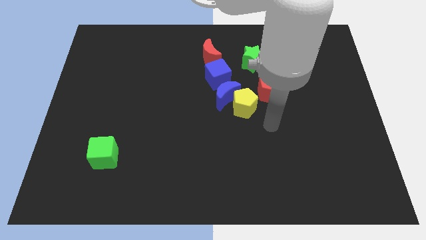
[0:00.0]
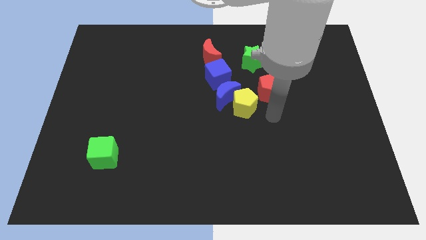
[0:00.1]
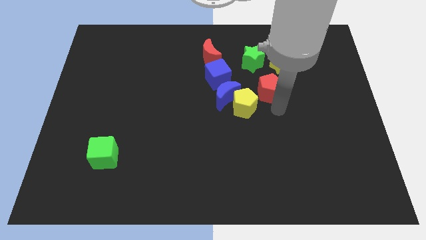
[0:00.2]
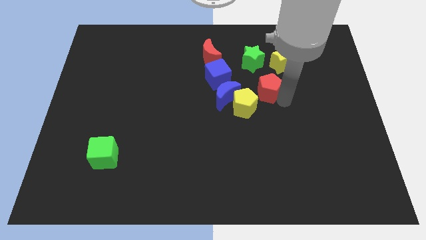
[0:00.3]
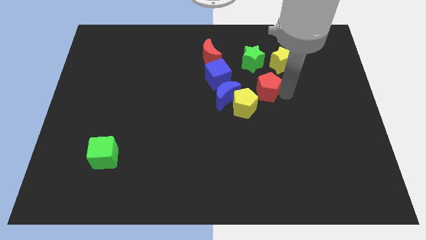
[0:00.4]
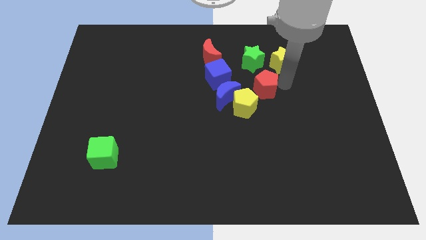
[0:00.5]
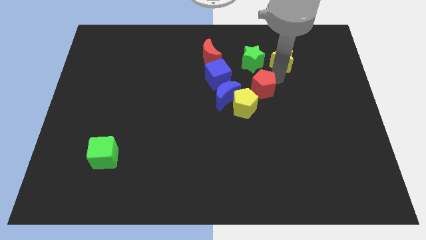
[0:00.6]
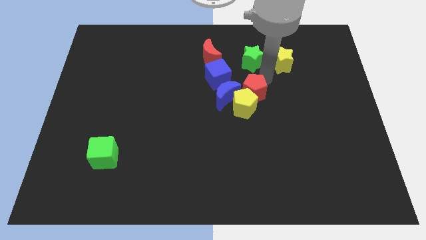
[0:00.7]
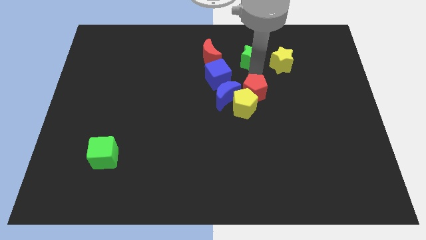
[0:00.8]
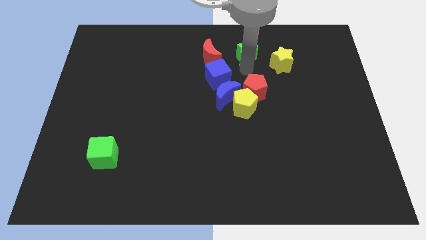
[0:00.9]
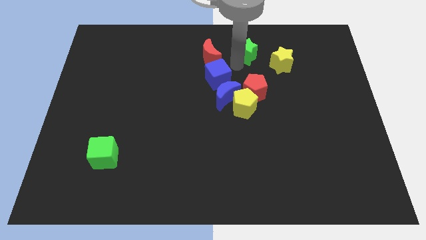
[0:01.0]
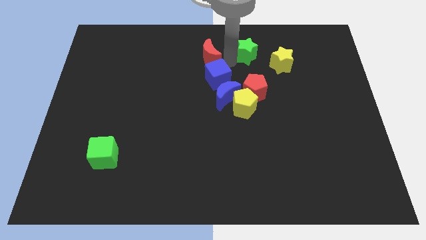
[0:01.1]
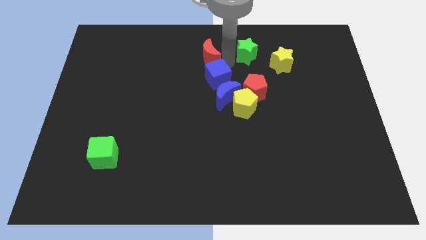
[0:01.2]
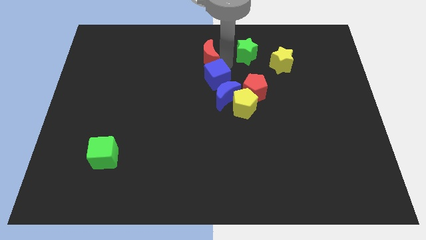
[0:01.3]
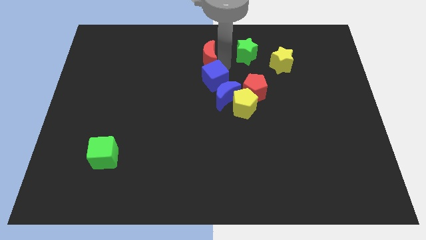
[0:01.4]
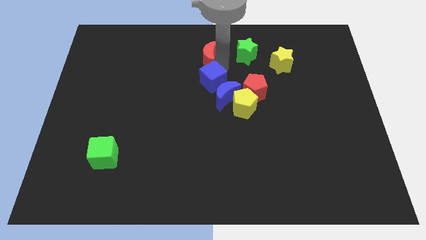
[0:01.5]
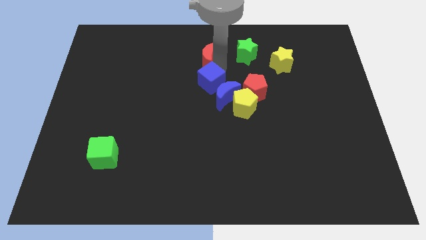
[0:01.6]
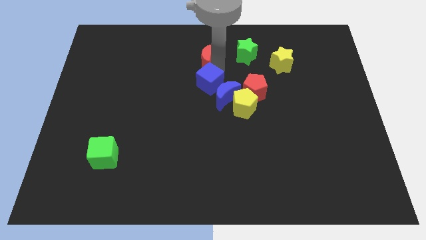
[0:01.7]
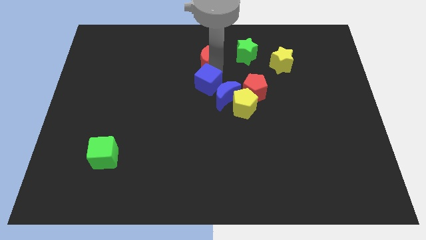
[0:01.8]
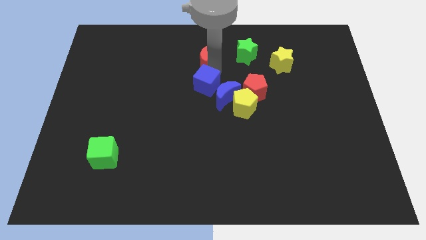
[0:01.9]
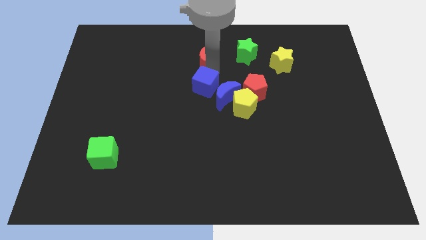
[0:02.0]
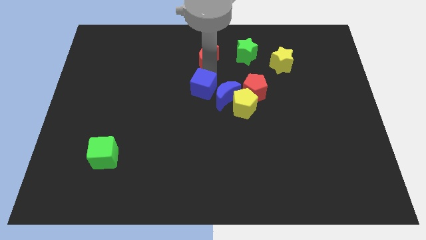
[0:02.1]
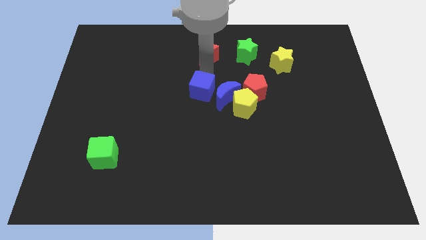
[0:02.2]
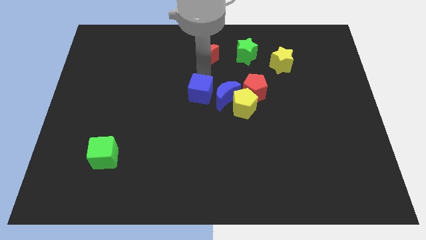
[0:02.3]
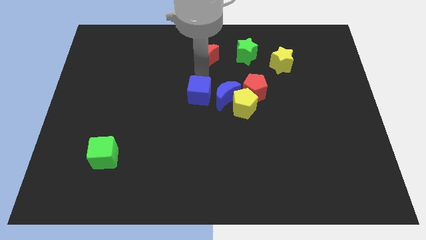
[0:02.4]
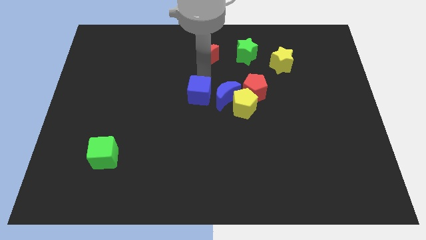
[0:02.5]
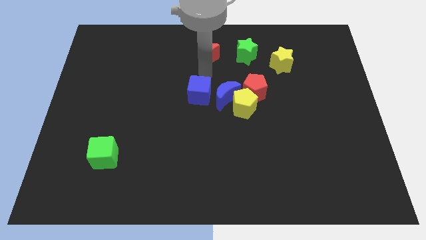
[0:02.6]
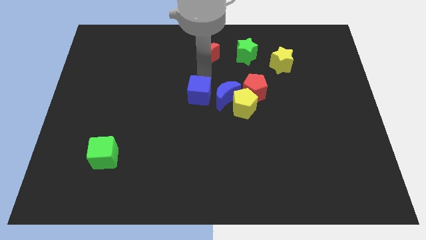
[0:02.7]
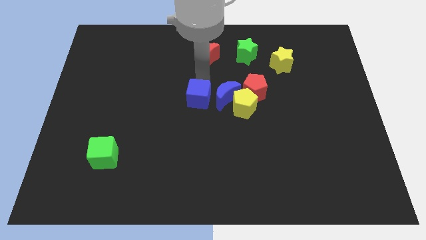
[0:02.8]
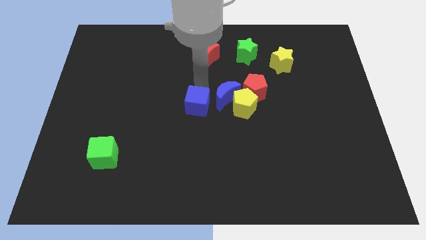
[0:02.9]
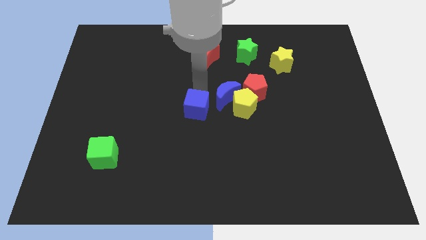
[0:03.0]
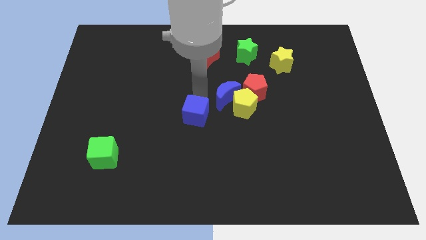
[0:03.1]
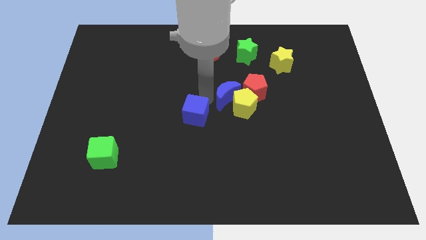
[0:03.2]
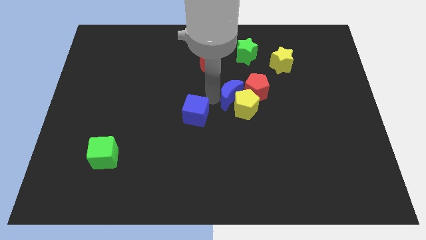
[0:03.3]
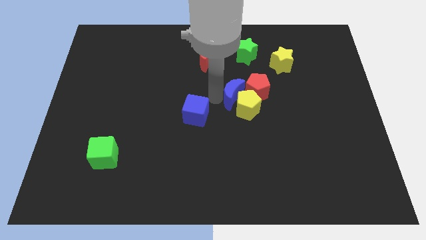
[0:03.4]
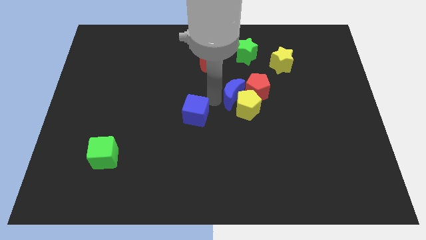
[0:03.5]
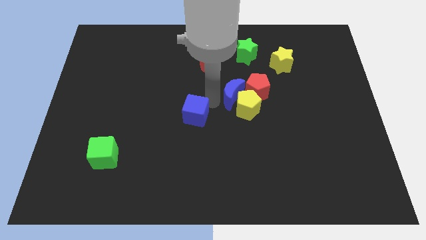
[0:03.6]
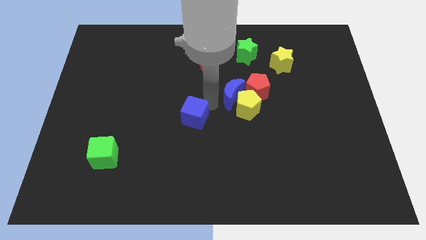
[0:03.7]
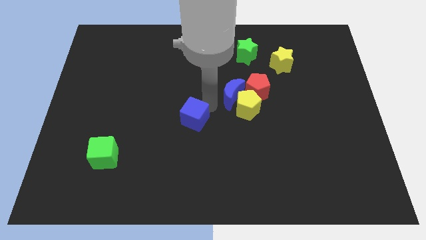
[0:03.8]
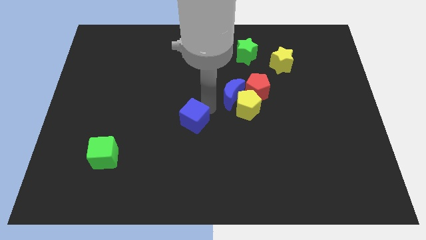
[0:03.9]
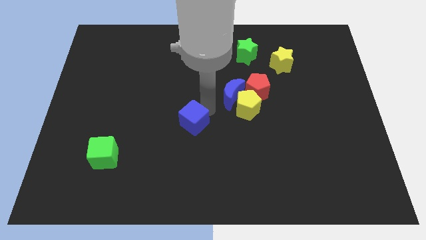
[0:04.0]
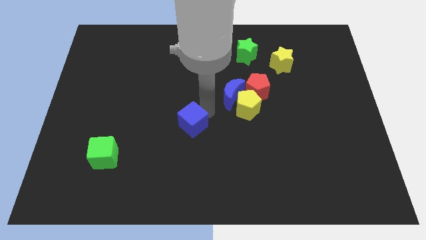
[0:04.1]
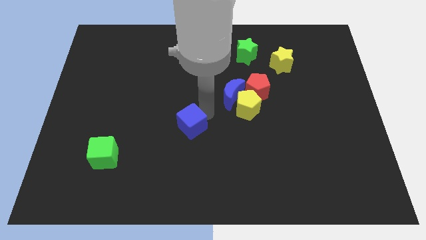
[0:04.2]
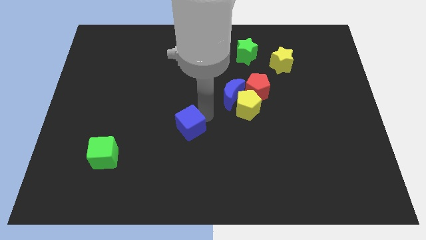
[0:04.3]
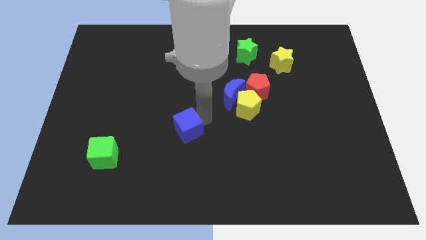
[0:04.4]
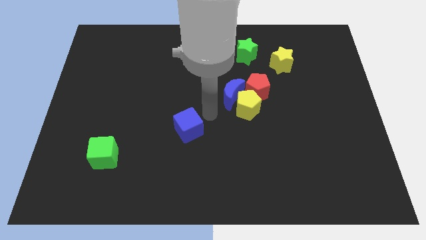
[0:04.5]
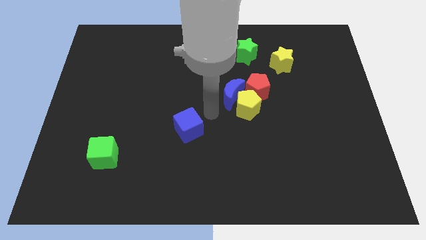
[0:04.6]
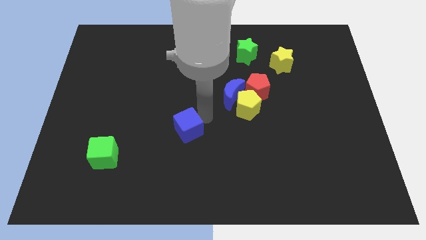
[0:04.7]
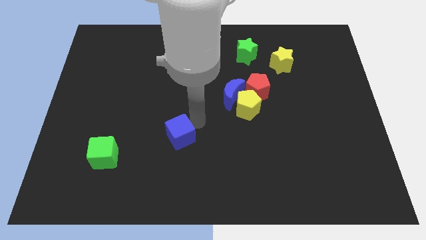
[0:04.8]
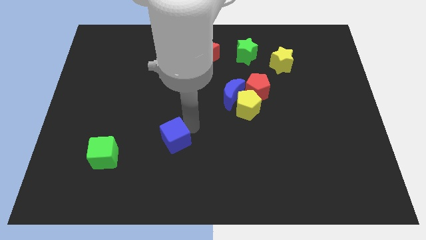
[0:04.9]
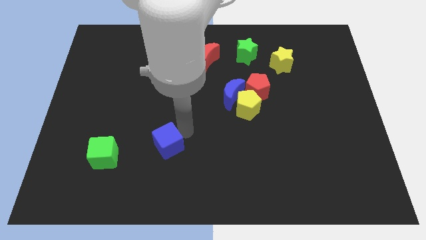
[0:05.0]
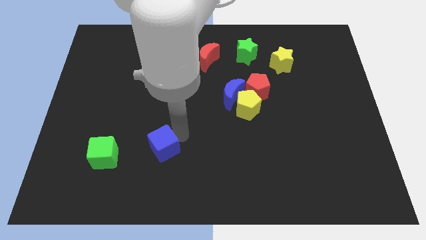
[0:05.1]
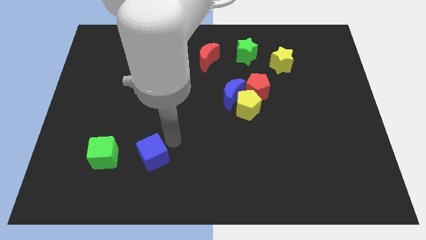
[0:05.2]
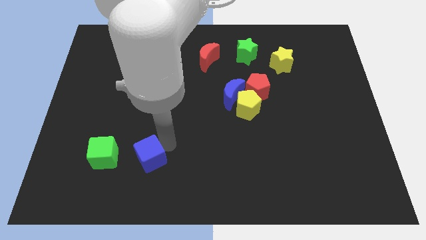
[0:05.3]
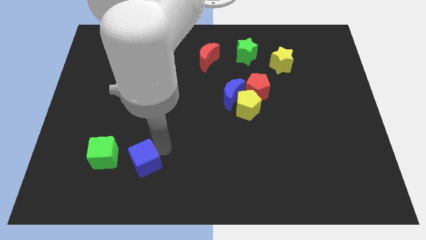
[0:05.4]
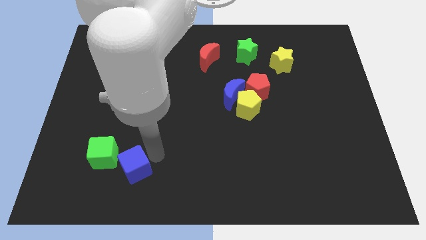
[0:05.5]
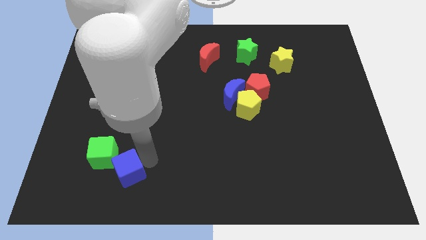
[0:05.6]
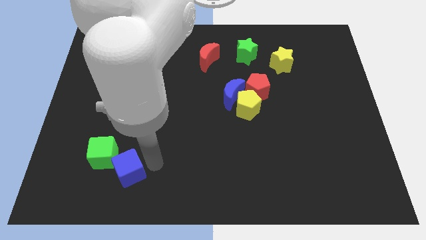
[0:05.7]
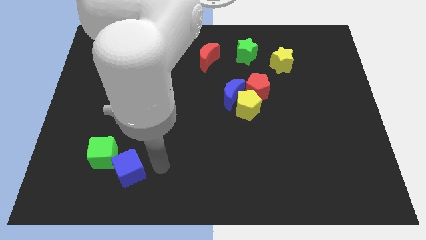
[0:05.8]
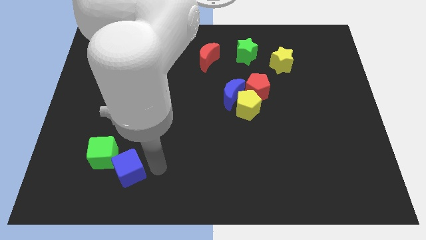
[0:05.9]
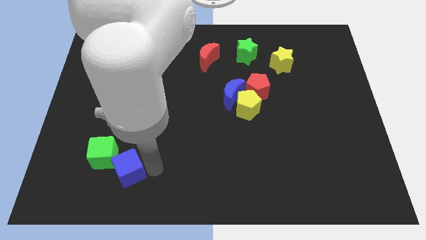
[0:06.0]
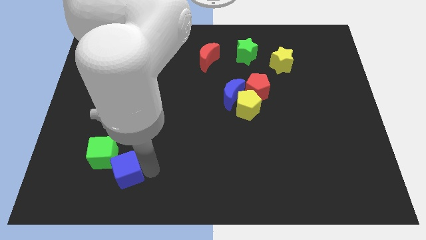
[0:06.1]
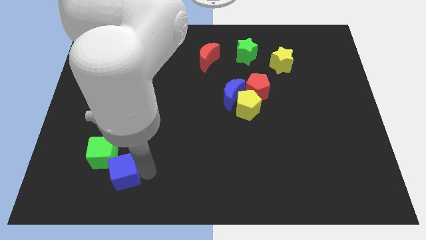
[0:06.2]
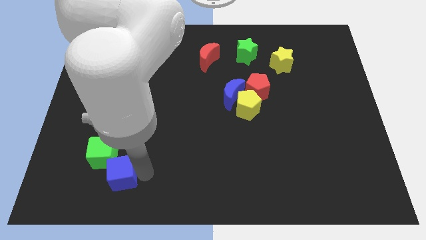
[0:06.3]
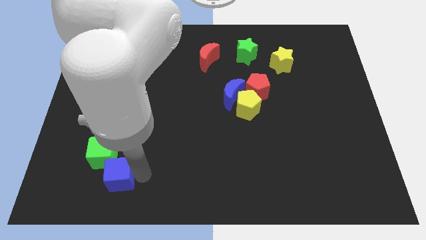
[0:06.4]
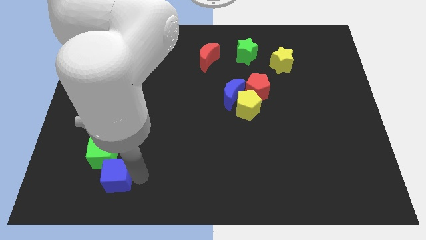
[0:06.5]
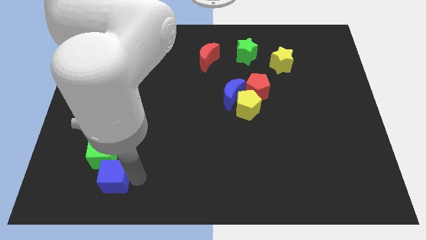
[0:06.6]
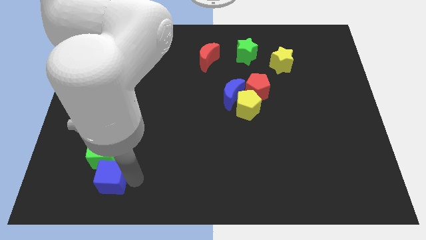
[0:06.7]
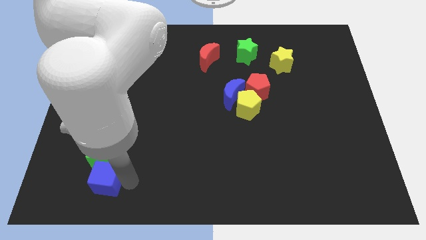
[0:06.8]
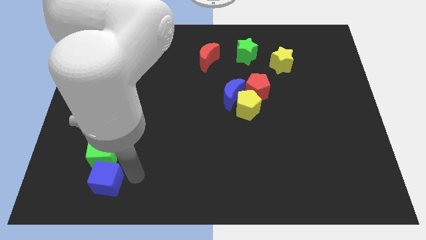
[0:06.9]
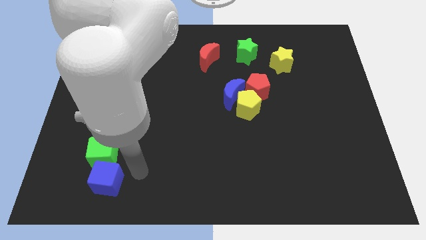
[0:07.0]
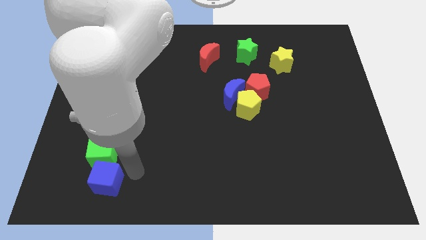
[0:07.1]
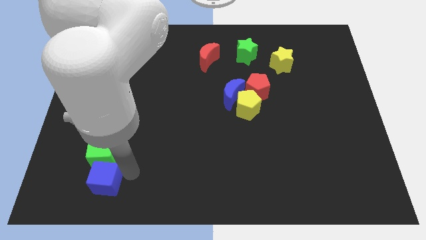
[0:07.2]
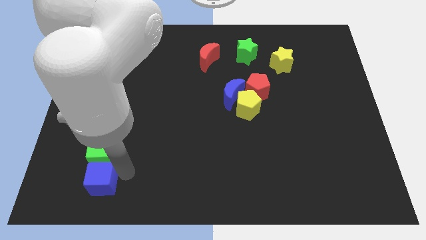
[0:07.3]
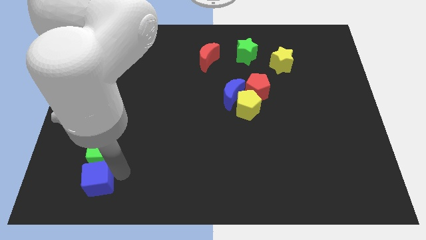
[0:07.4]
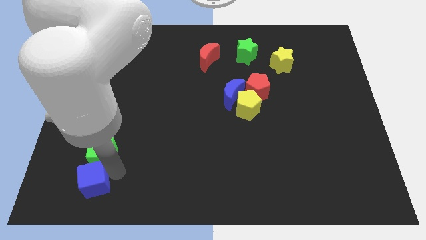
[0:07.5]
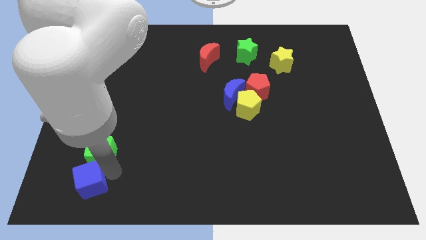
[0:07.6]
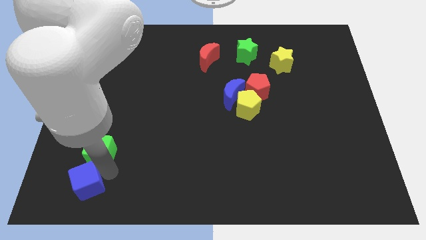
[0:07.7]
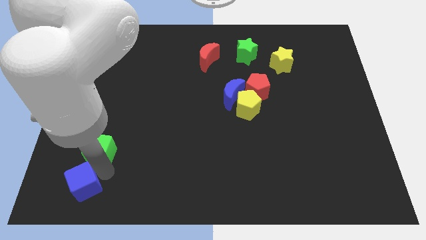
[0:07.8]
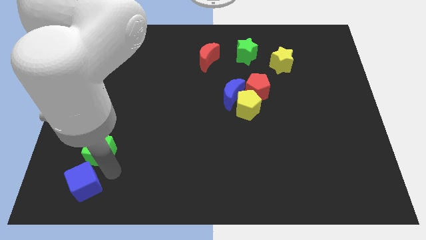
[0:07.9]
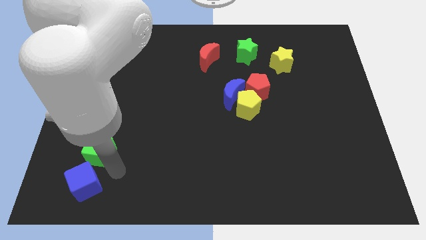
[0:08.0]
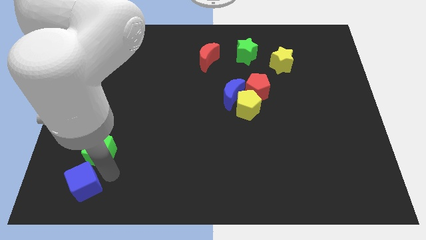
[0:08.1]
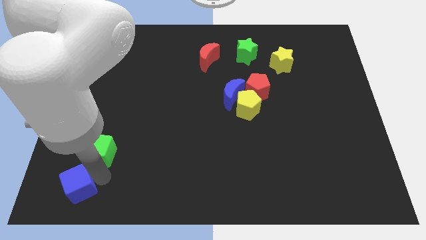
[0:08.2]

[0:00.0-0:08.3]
push the blue cube to the bottom left
